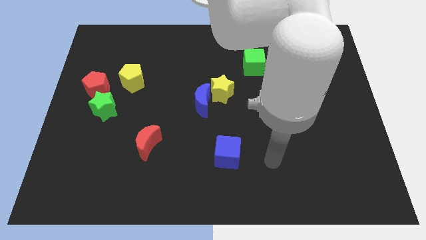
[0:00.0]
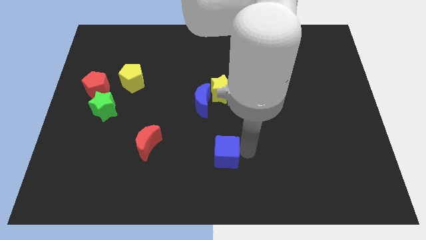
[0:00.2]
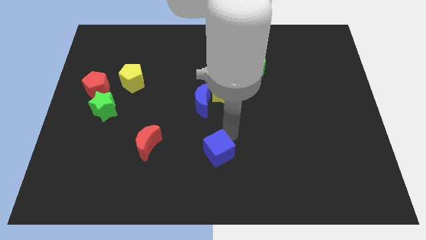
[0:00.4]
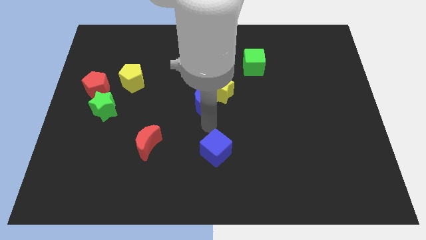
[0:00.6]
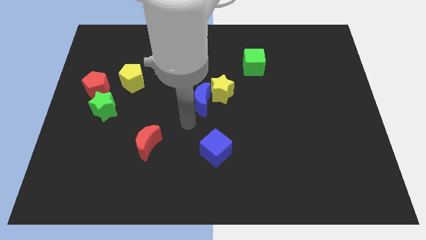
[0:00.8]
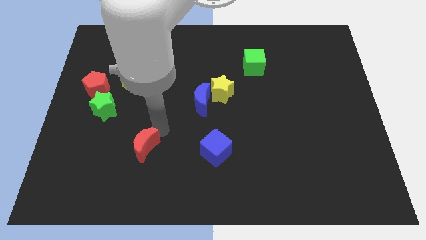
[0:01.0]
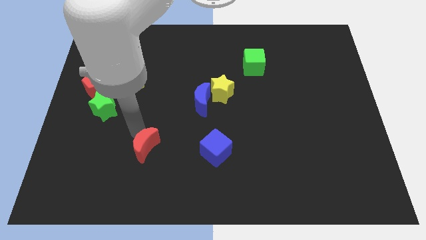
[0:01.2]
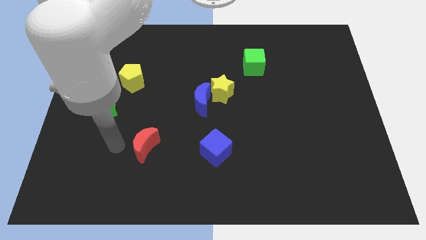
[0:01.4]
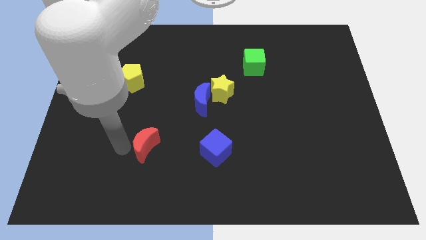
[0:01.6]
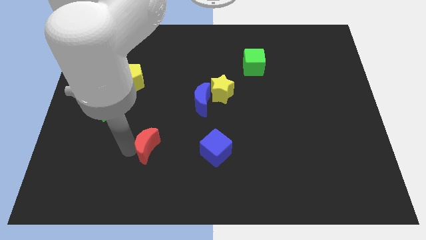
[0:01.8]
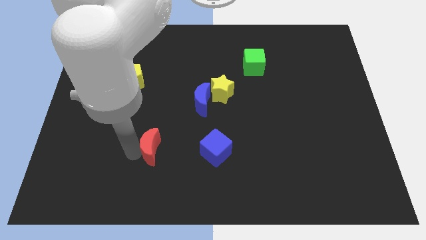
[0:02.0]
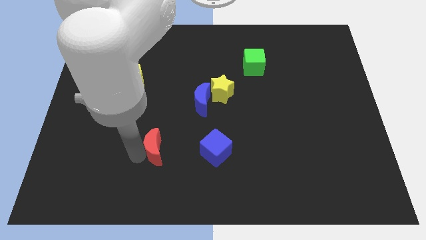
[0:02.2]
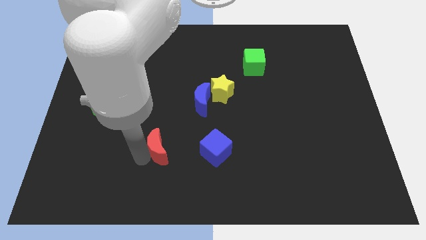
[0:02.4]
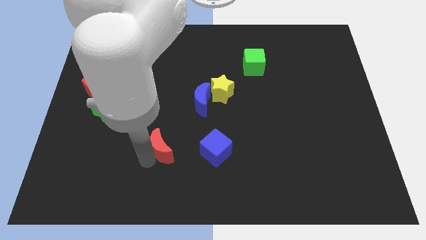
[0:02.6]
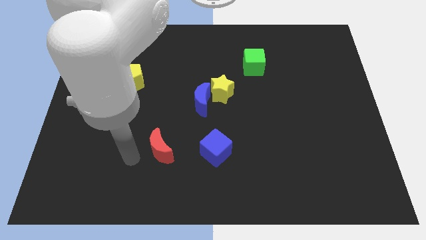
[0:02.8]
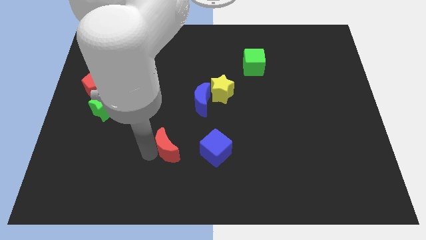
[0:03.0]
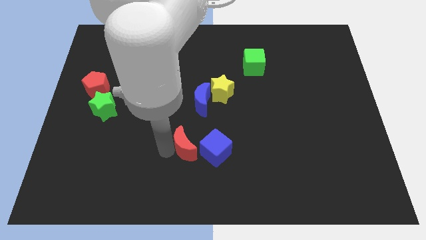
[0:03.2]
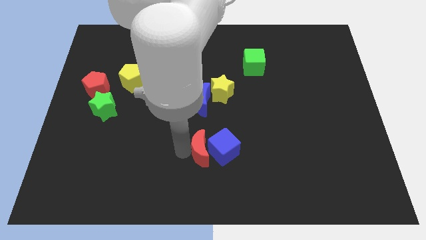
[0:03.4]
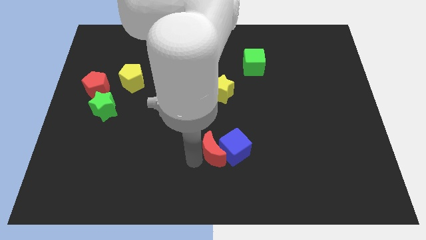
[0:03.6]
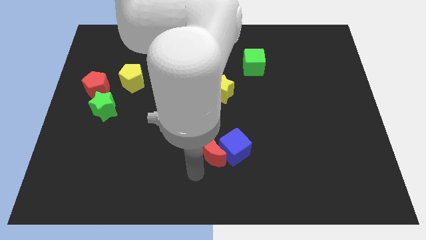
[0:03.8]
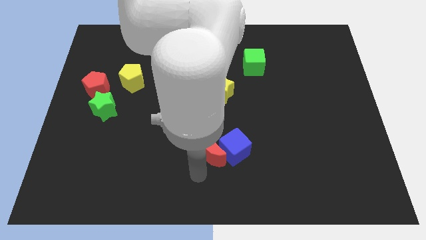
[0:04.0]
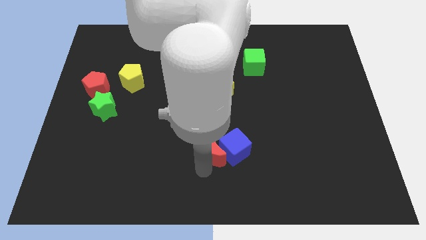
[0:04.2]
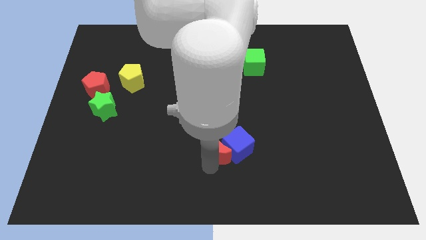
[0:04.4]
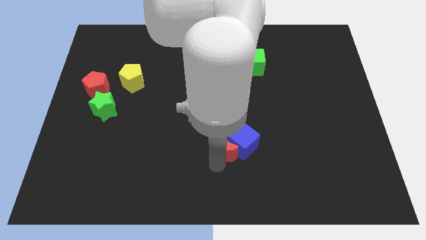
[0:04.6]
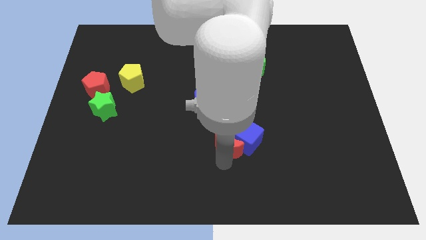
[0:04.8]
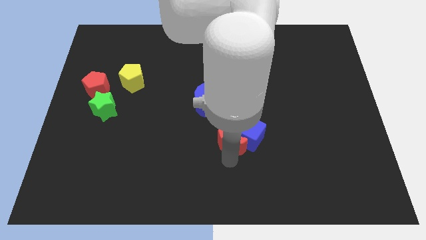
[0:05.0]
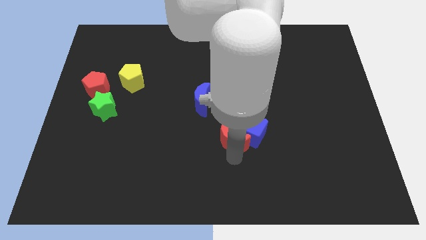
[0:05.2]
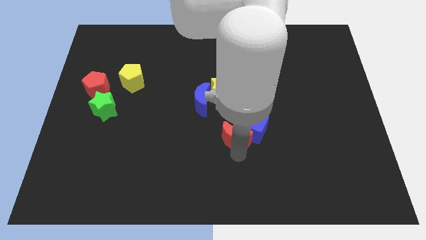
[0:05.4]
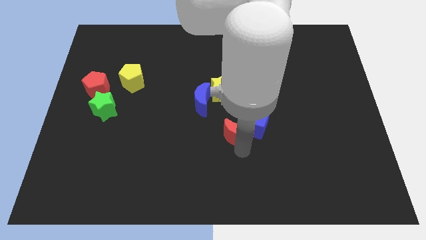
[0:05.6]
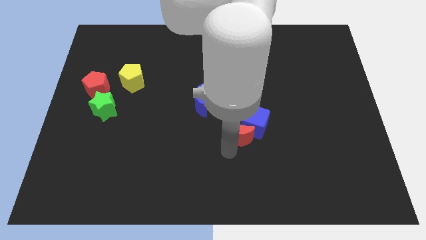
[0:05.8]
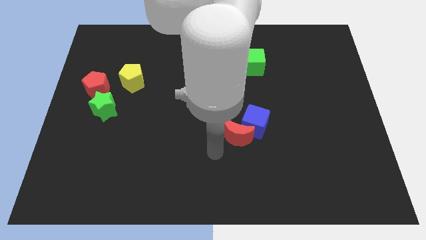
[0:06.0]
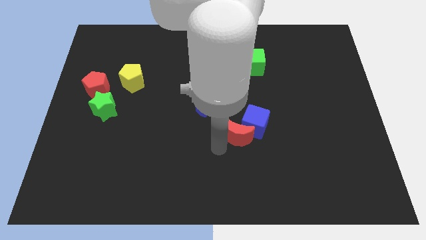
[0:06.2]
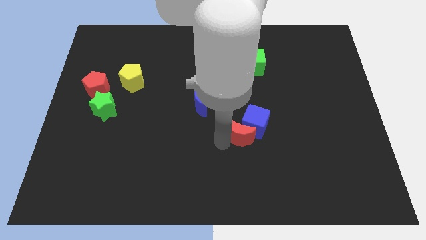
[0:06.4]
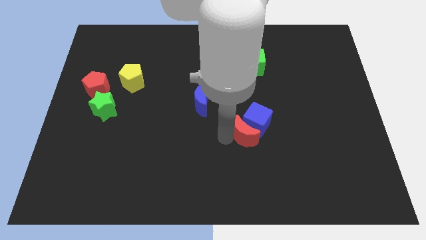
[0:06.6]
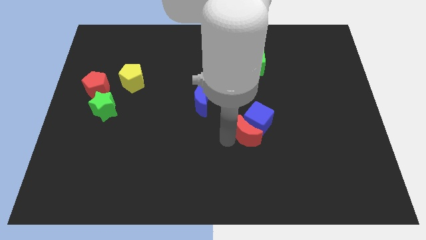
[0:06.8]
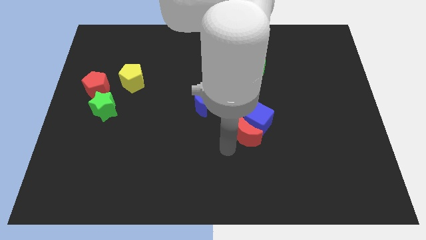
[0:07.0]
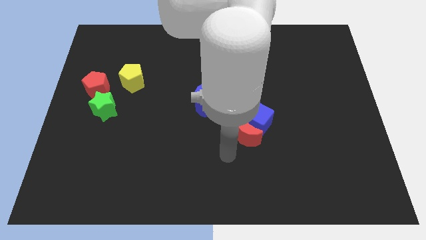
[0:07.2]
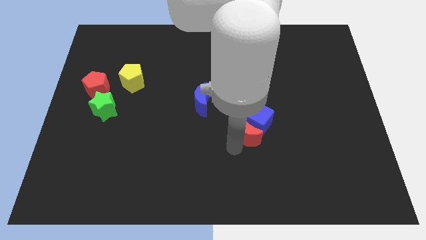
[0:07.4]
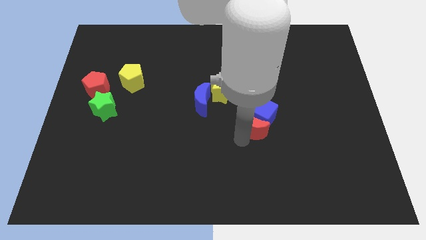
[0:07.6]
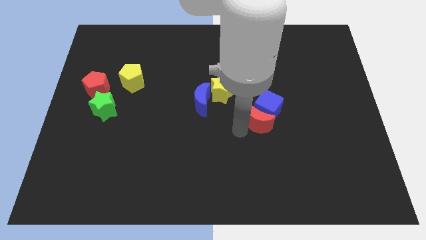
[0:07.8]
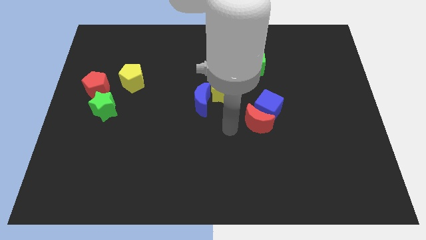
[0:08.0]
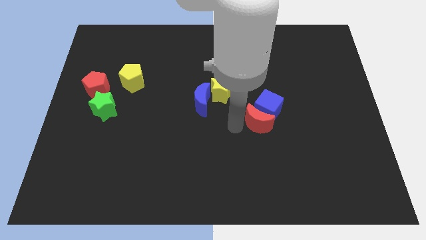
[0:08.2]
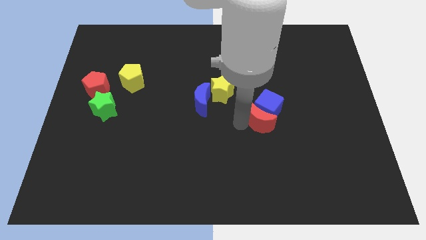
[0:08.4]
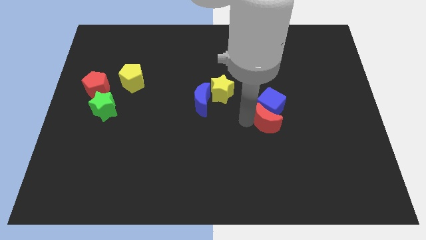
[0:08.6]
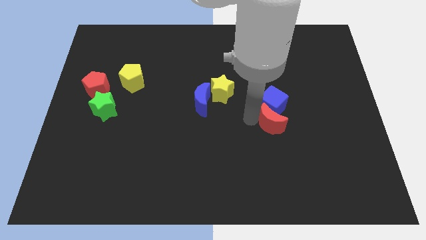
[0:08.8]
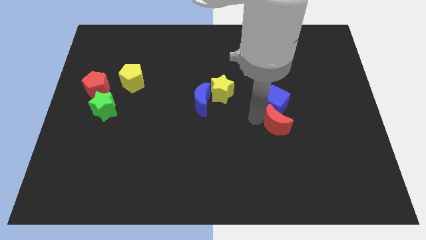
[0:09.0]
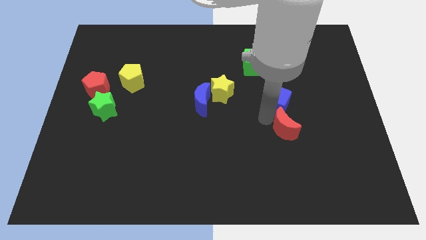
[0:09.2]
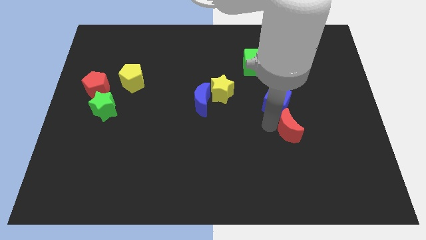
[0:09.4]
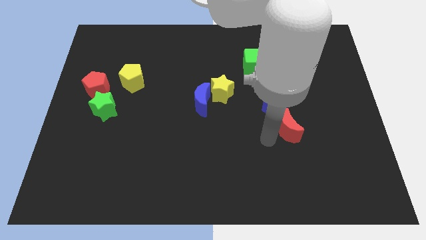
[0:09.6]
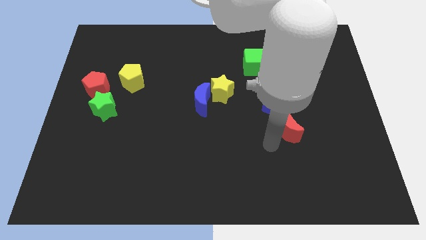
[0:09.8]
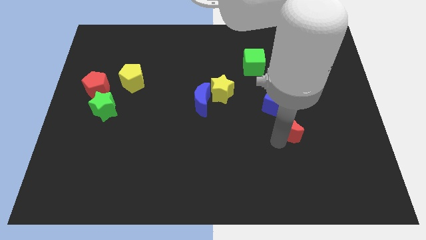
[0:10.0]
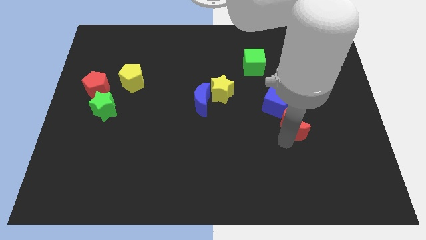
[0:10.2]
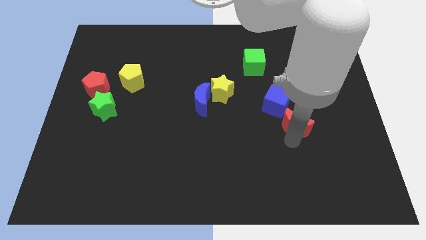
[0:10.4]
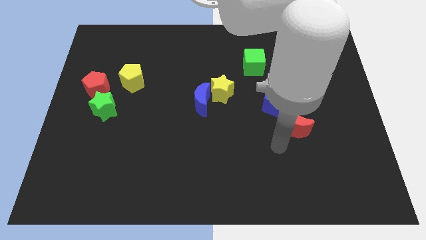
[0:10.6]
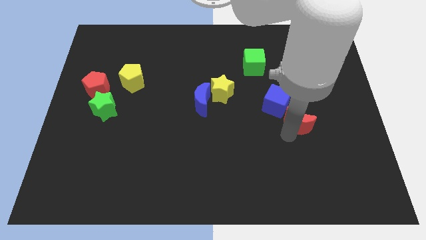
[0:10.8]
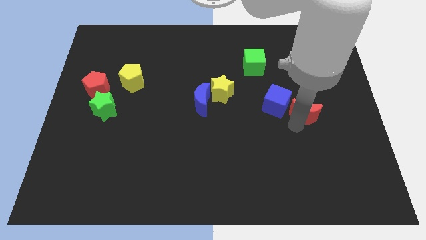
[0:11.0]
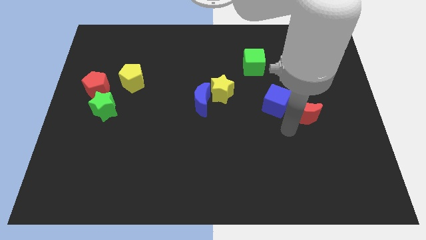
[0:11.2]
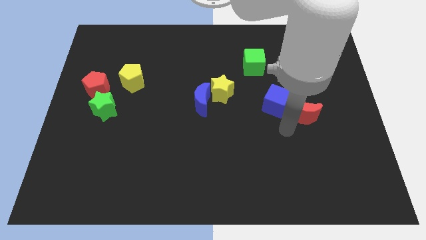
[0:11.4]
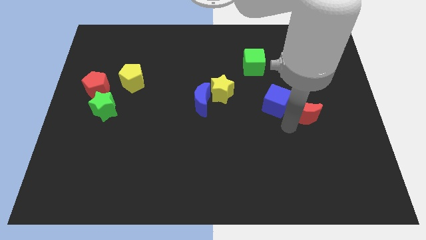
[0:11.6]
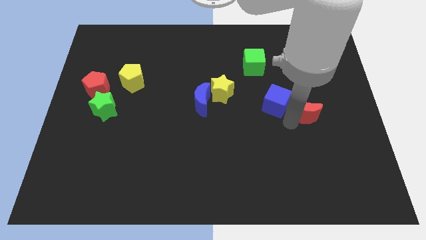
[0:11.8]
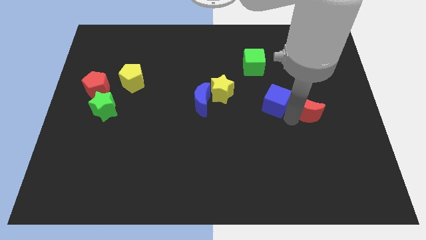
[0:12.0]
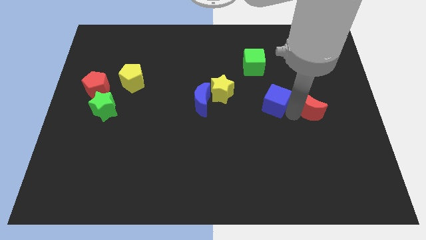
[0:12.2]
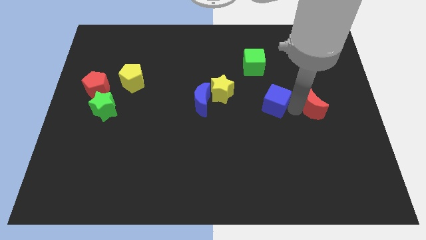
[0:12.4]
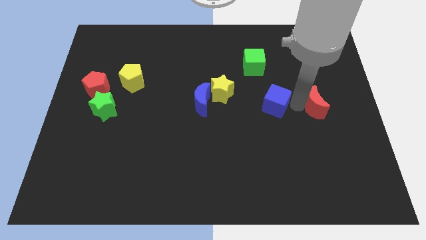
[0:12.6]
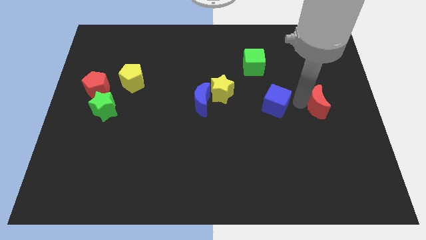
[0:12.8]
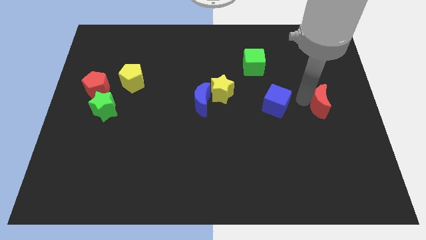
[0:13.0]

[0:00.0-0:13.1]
put the red moon to the right side of the board

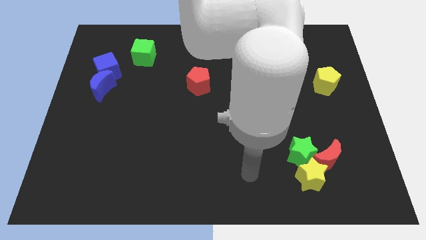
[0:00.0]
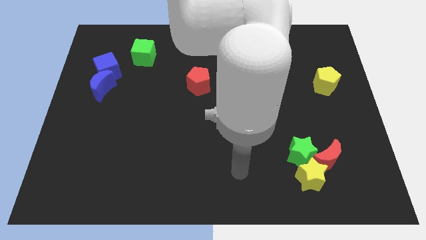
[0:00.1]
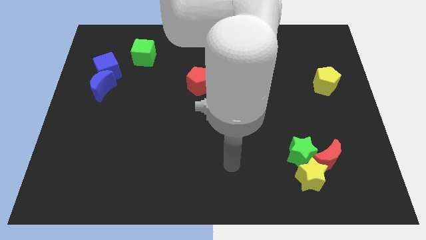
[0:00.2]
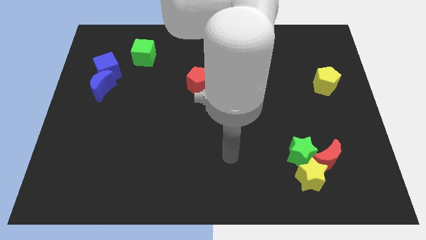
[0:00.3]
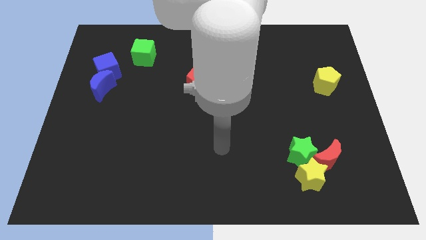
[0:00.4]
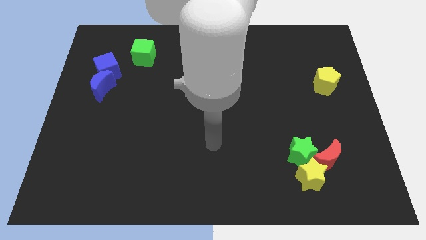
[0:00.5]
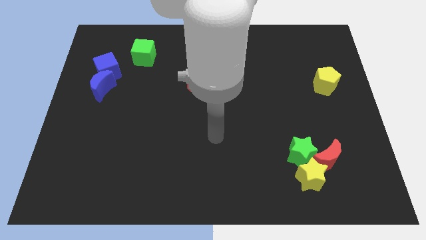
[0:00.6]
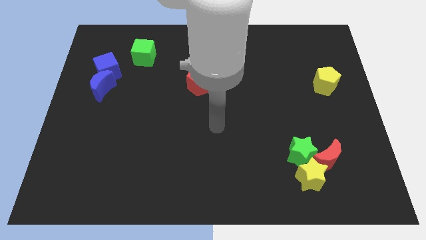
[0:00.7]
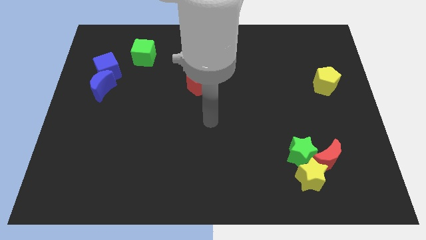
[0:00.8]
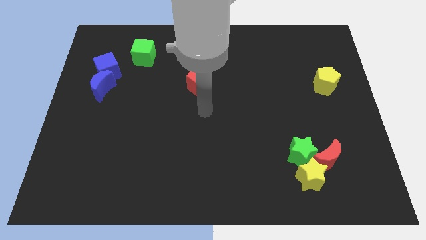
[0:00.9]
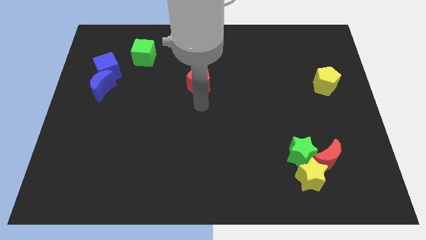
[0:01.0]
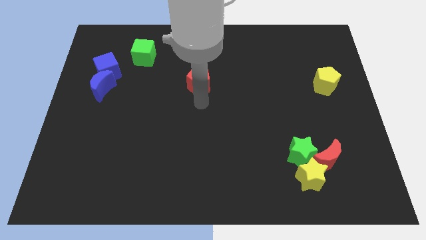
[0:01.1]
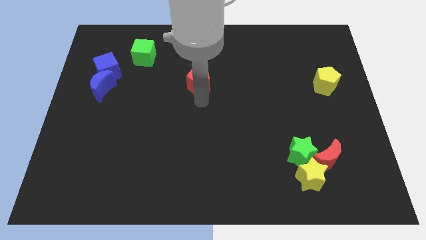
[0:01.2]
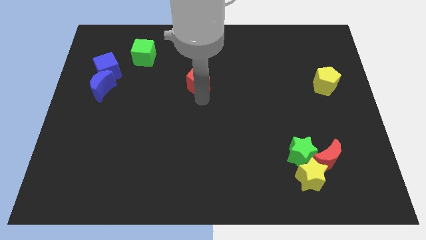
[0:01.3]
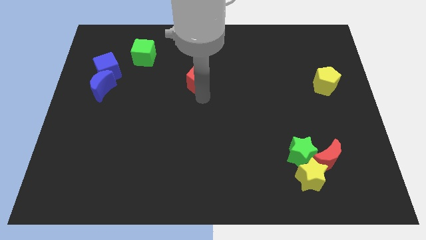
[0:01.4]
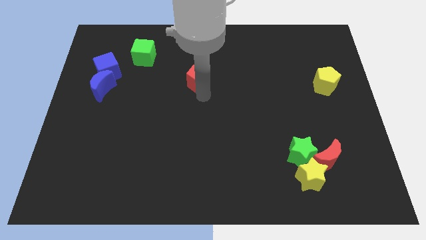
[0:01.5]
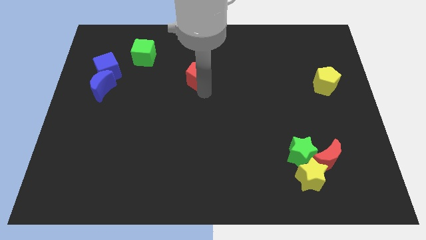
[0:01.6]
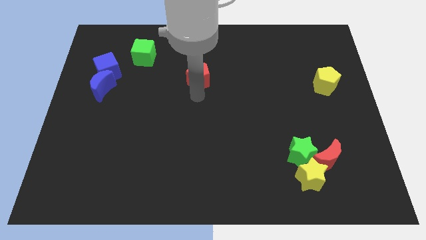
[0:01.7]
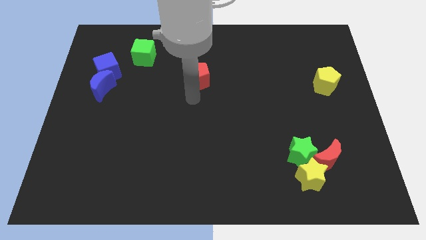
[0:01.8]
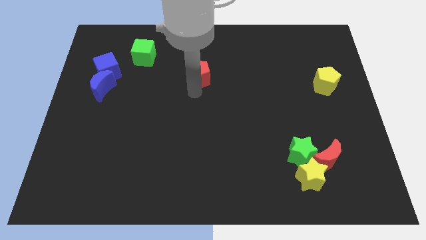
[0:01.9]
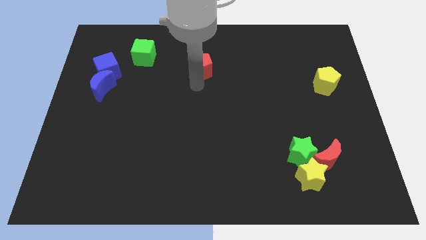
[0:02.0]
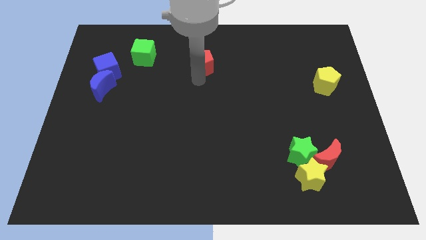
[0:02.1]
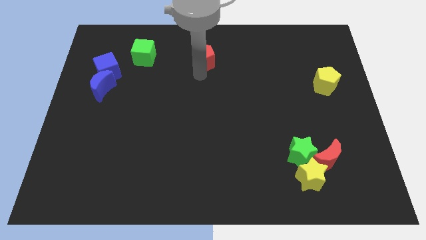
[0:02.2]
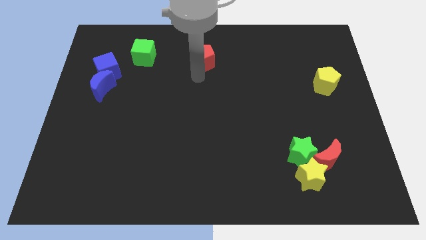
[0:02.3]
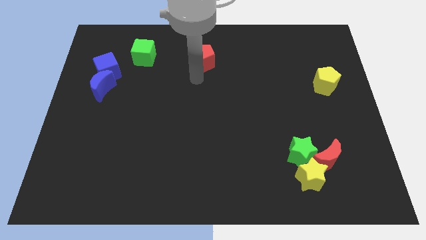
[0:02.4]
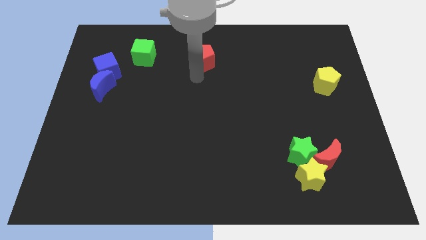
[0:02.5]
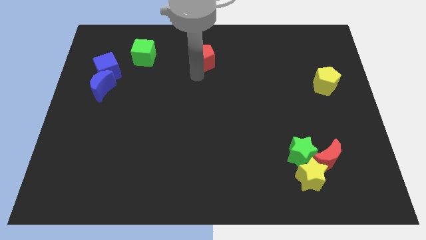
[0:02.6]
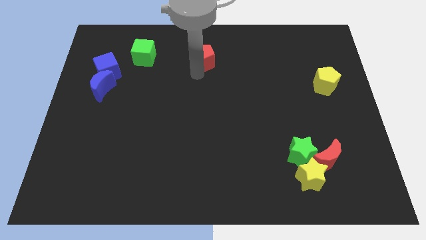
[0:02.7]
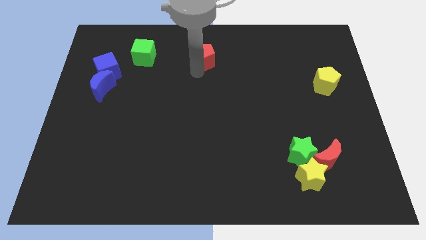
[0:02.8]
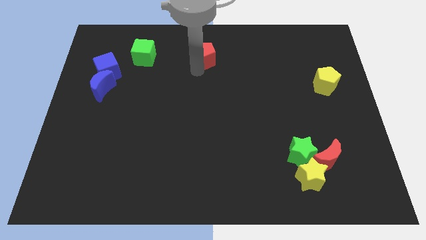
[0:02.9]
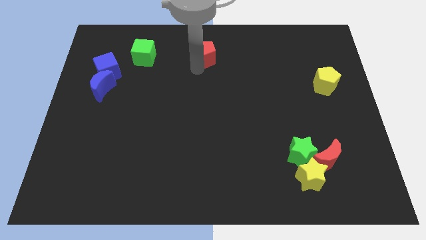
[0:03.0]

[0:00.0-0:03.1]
put the red pentagon to the towards your base
